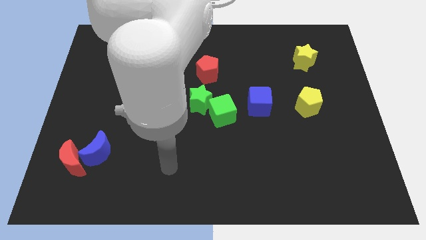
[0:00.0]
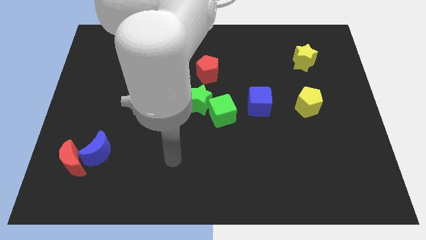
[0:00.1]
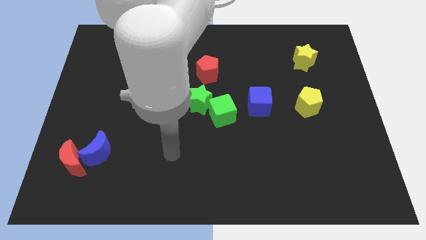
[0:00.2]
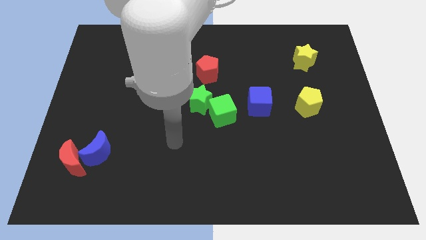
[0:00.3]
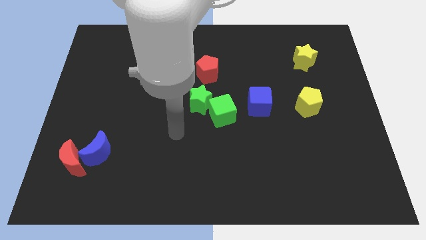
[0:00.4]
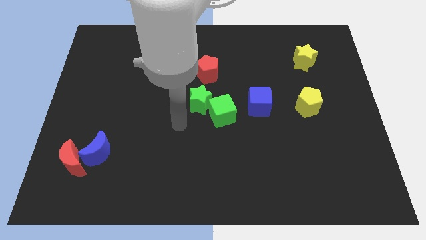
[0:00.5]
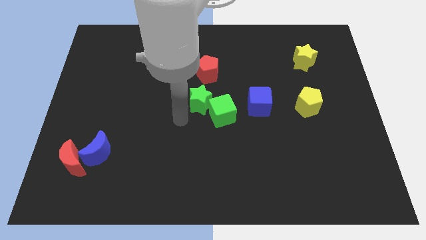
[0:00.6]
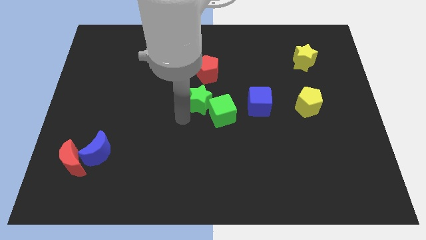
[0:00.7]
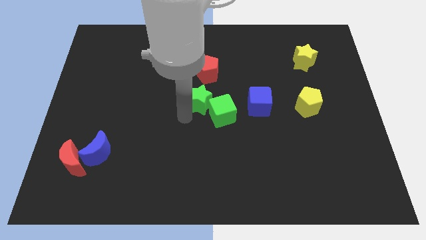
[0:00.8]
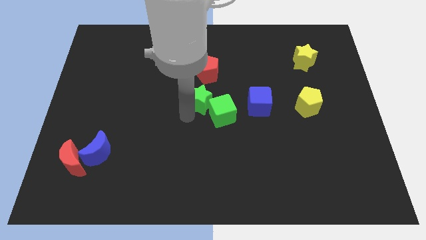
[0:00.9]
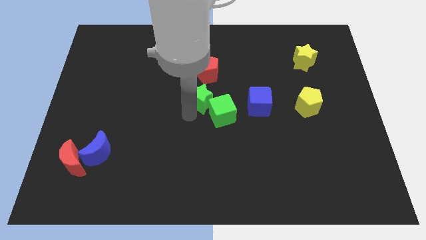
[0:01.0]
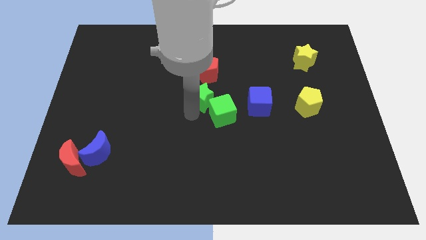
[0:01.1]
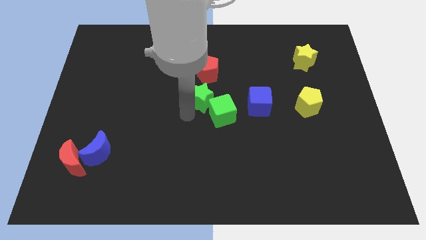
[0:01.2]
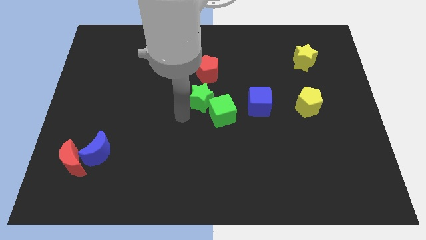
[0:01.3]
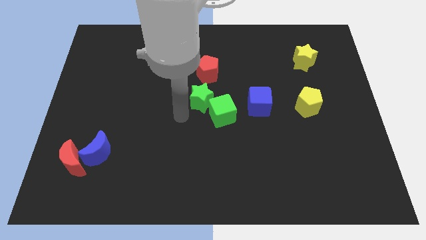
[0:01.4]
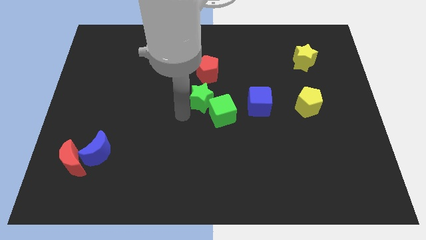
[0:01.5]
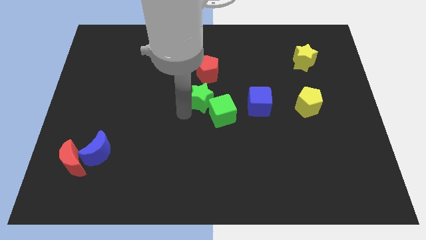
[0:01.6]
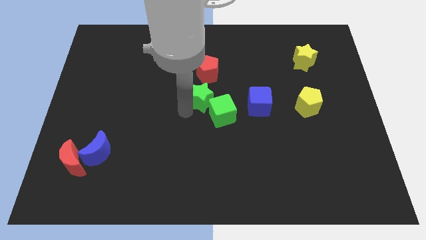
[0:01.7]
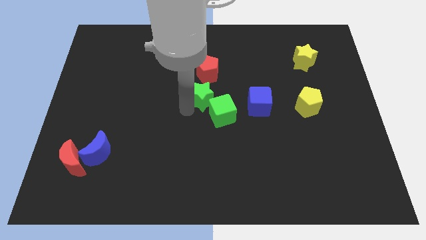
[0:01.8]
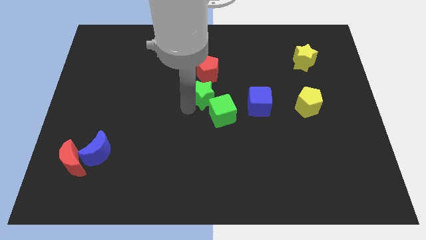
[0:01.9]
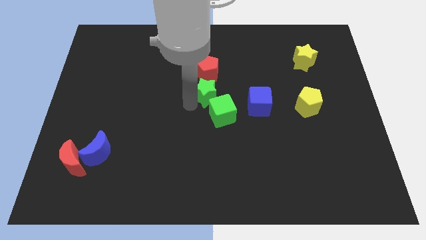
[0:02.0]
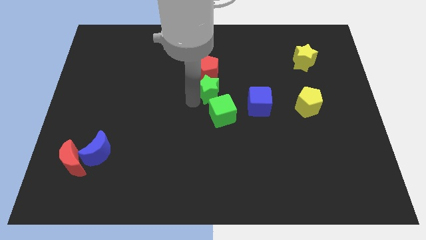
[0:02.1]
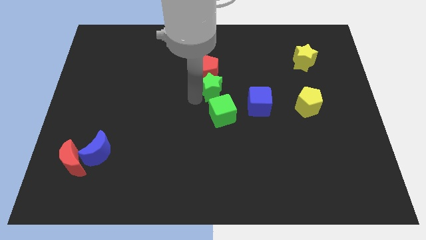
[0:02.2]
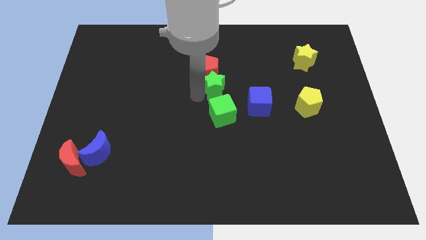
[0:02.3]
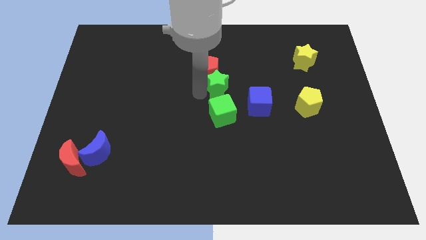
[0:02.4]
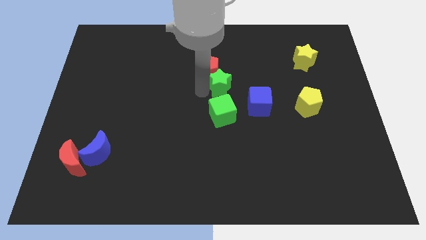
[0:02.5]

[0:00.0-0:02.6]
slightly push the green star up and to the right diagonally

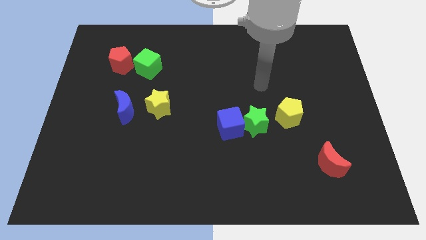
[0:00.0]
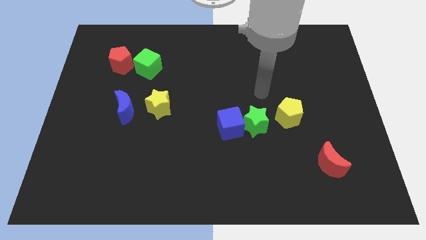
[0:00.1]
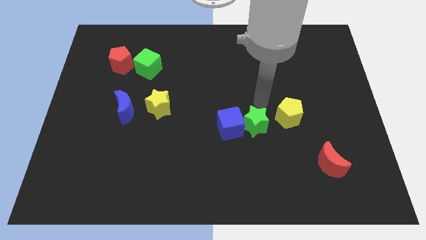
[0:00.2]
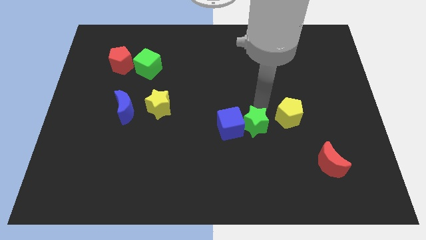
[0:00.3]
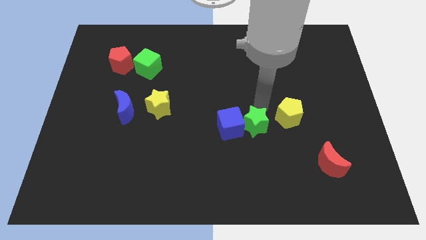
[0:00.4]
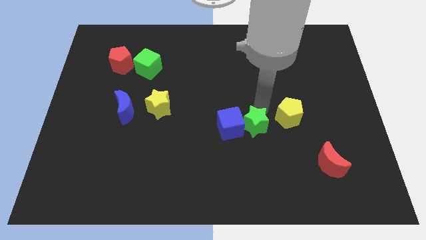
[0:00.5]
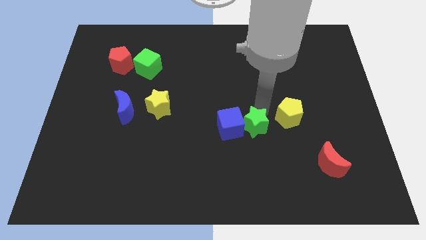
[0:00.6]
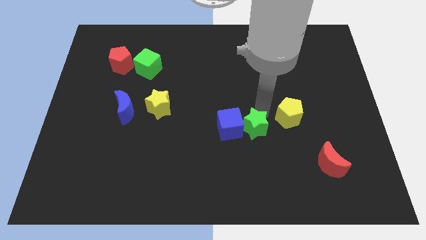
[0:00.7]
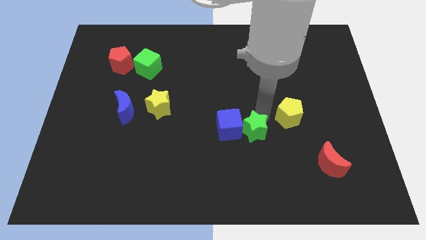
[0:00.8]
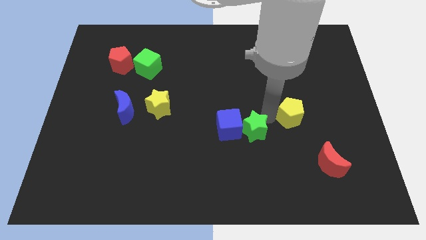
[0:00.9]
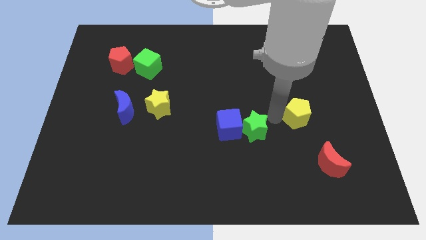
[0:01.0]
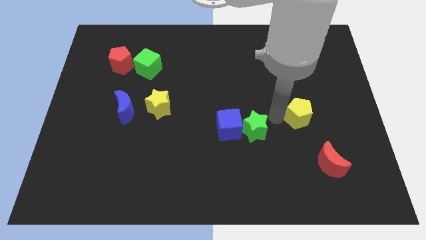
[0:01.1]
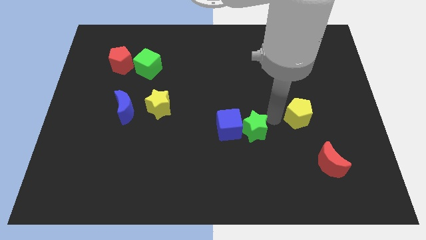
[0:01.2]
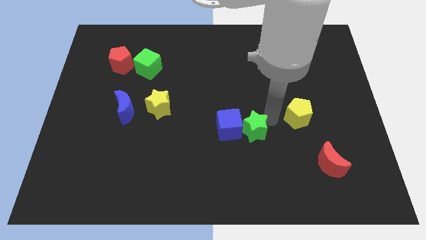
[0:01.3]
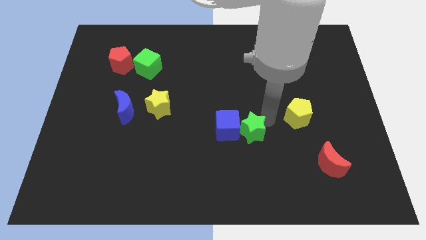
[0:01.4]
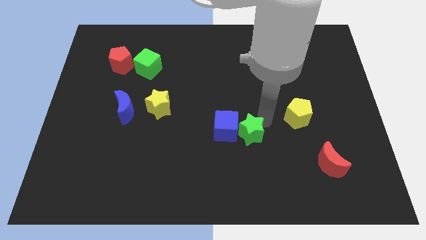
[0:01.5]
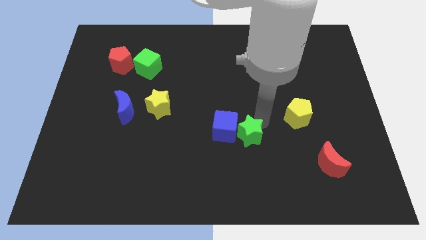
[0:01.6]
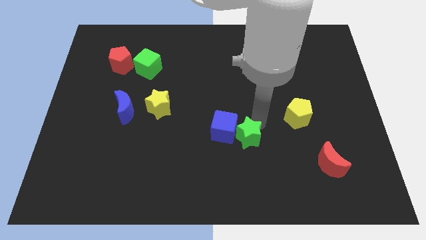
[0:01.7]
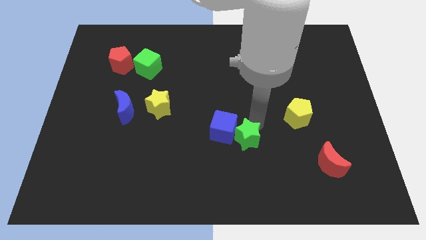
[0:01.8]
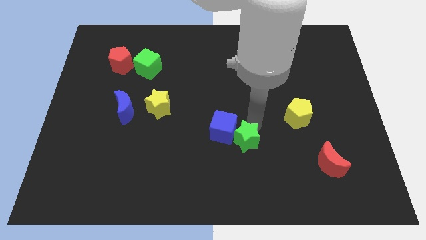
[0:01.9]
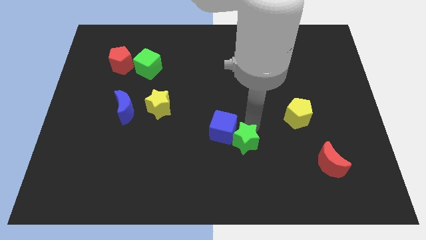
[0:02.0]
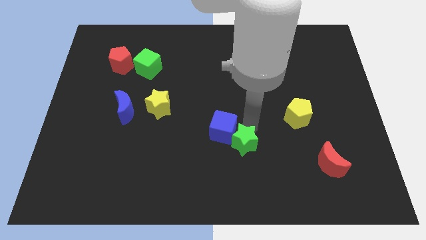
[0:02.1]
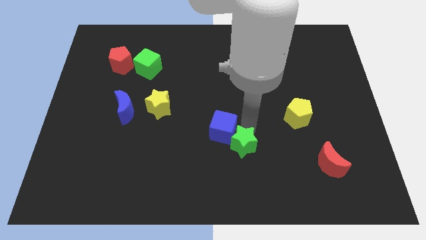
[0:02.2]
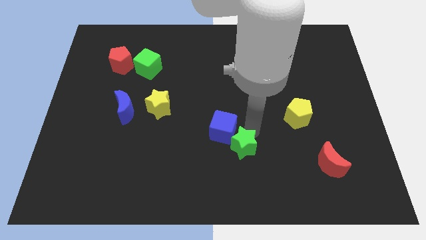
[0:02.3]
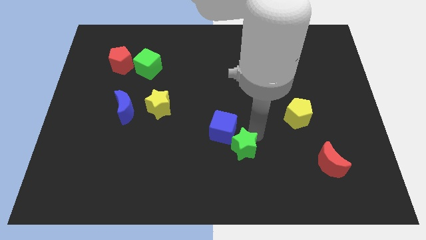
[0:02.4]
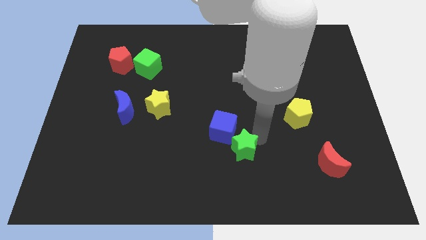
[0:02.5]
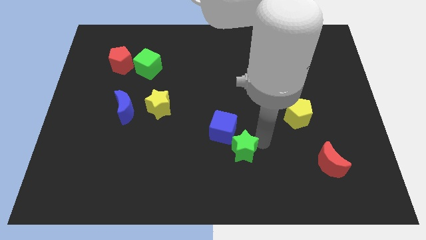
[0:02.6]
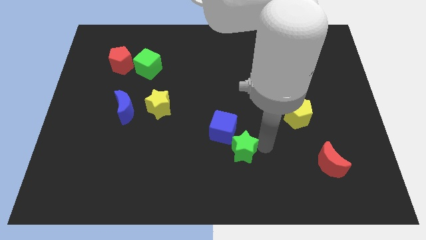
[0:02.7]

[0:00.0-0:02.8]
slightly slide the green star downwards and left

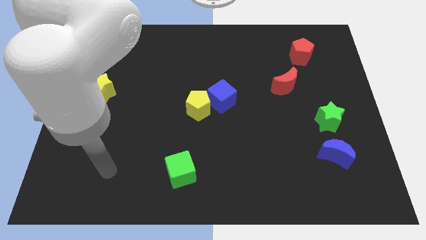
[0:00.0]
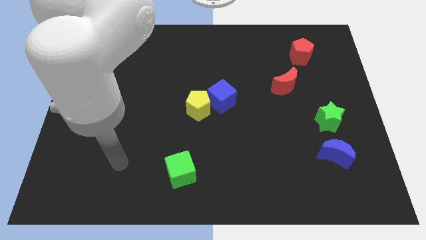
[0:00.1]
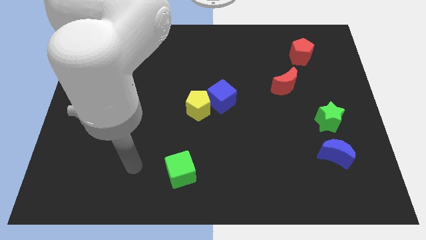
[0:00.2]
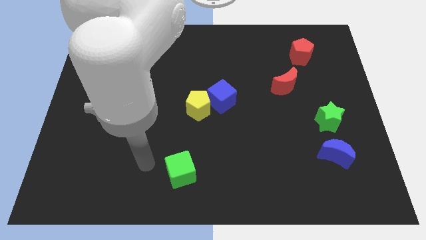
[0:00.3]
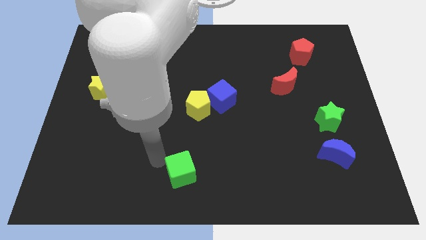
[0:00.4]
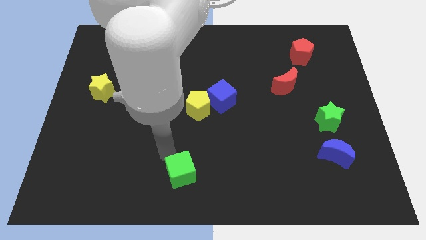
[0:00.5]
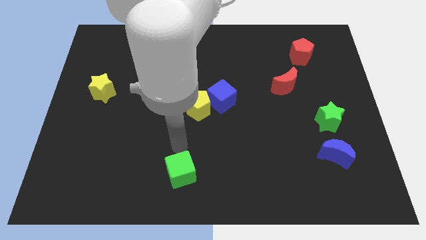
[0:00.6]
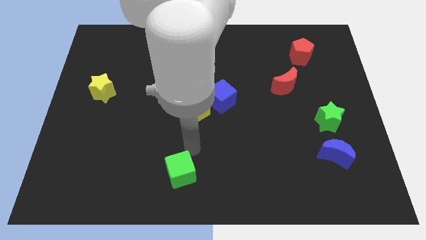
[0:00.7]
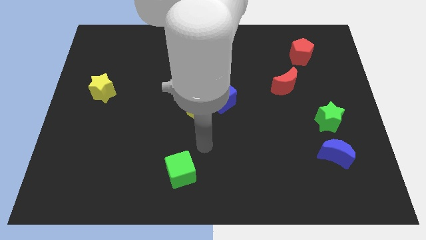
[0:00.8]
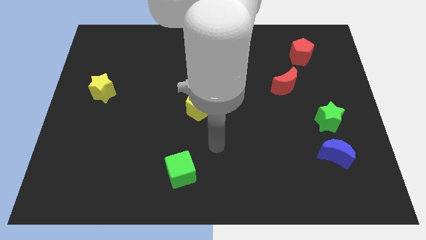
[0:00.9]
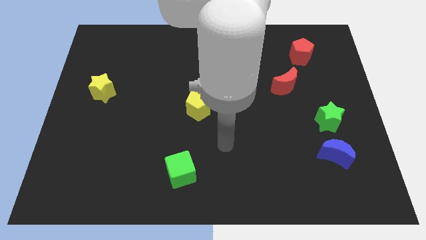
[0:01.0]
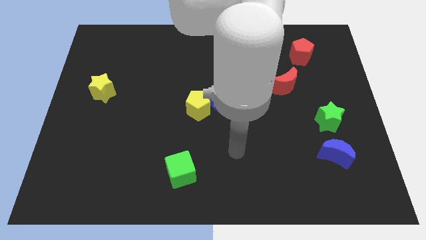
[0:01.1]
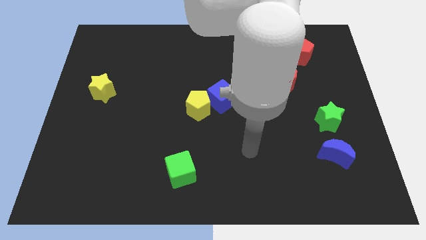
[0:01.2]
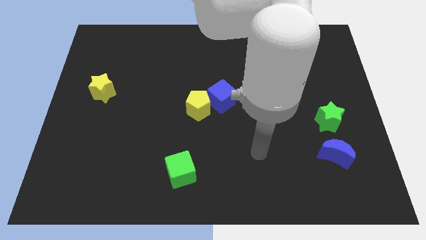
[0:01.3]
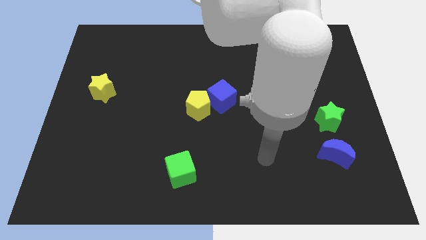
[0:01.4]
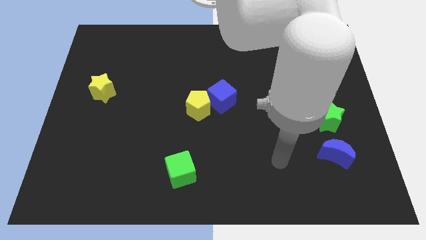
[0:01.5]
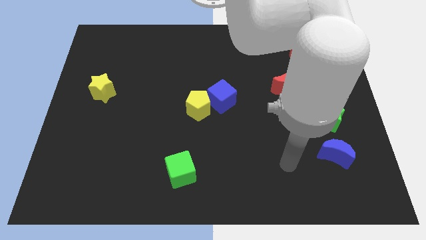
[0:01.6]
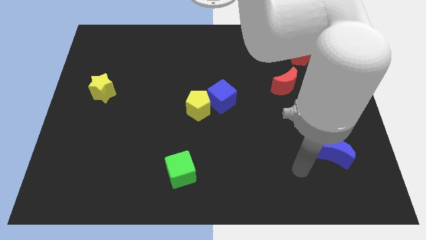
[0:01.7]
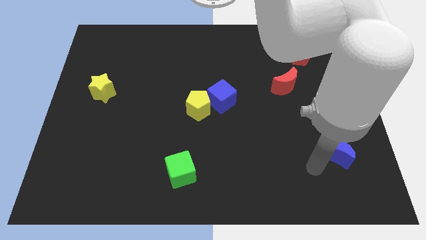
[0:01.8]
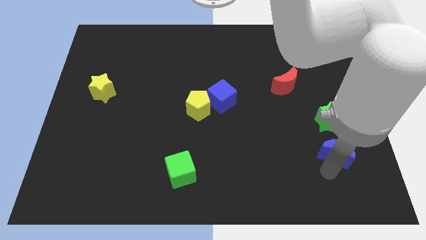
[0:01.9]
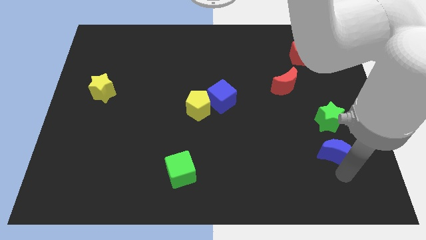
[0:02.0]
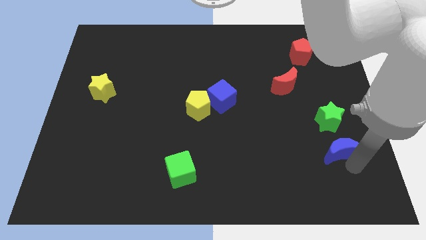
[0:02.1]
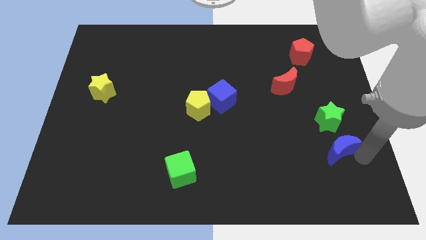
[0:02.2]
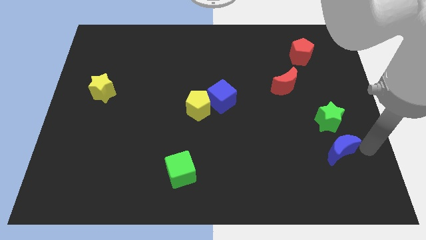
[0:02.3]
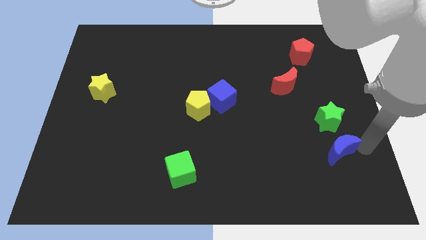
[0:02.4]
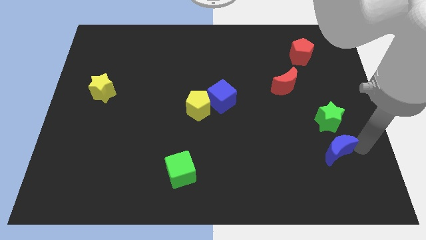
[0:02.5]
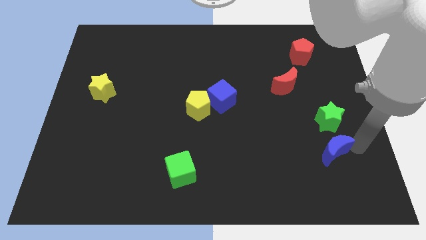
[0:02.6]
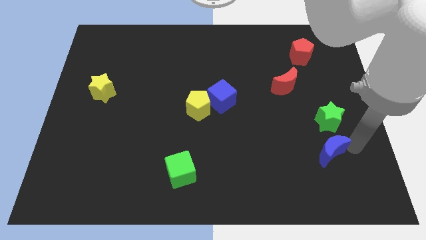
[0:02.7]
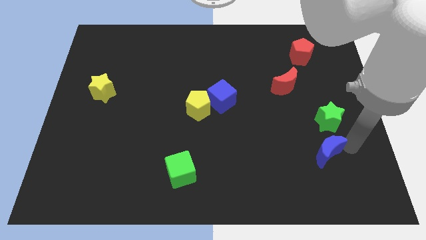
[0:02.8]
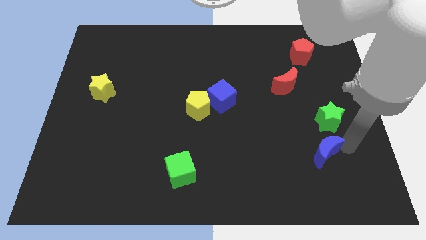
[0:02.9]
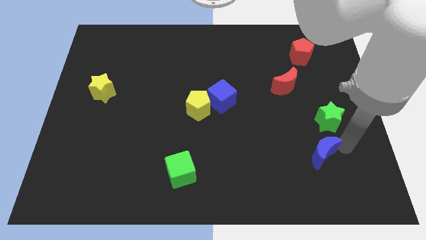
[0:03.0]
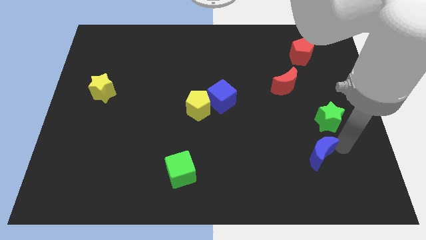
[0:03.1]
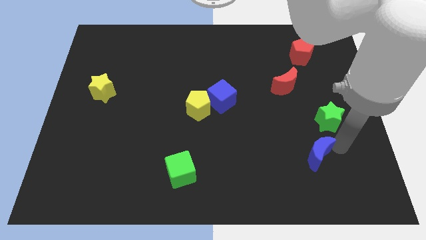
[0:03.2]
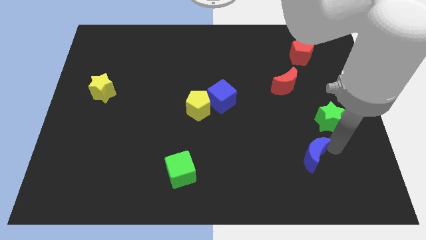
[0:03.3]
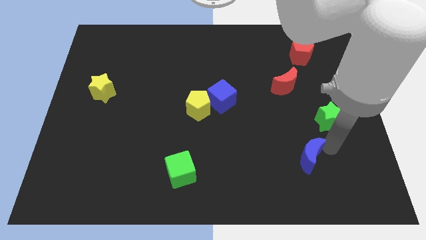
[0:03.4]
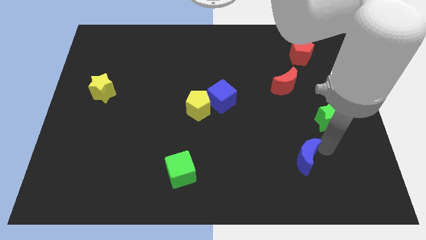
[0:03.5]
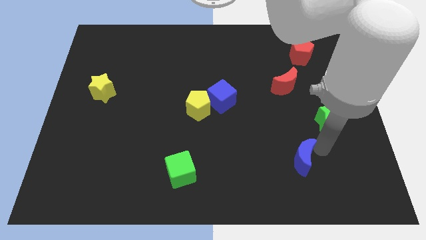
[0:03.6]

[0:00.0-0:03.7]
move the blue moon somewhat left
